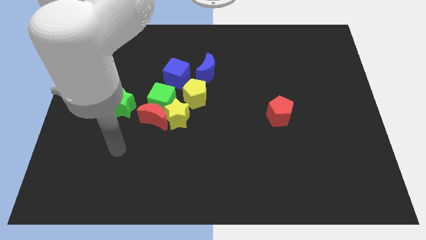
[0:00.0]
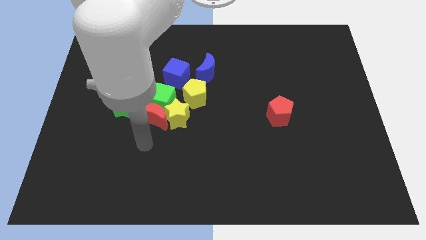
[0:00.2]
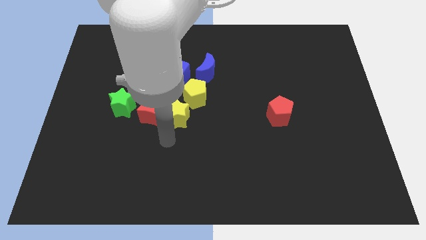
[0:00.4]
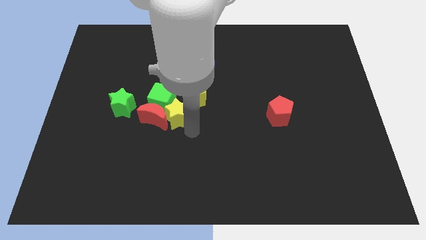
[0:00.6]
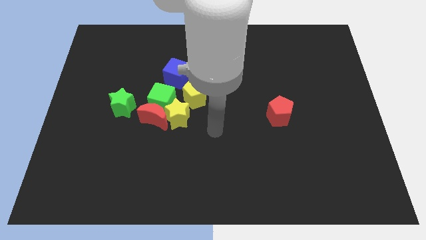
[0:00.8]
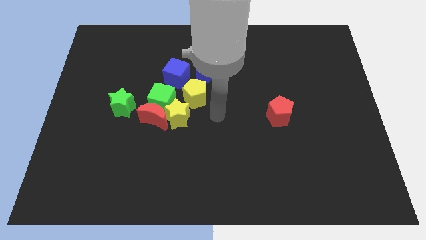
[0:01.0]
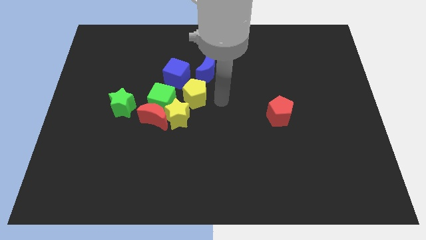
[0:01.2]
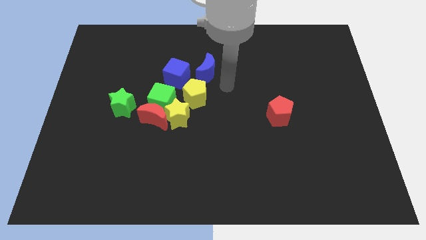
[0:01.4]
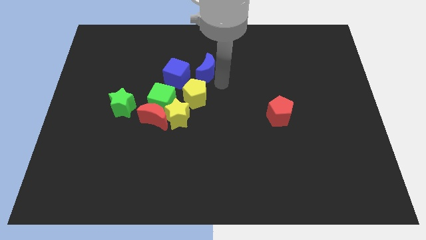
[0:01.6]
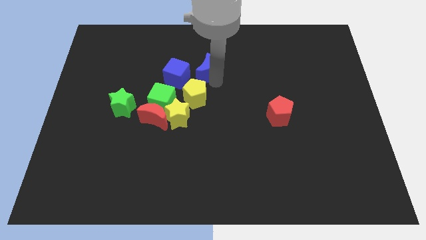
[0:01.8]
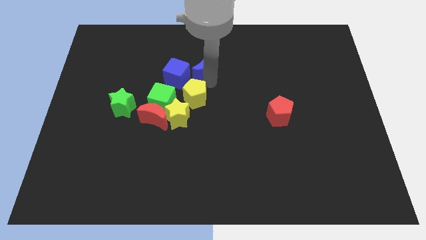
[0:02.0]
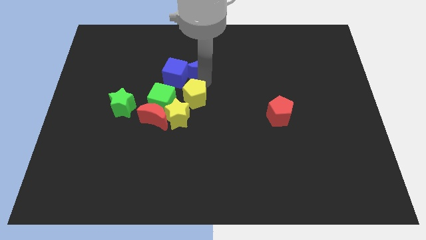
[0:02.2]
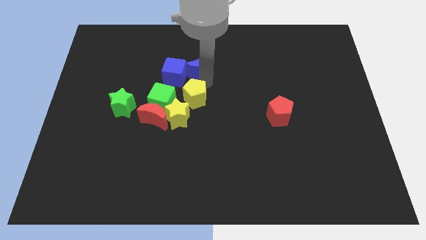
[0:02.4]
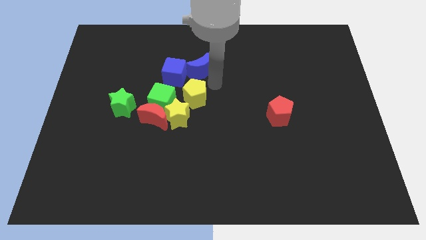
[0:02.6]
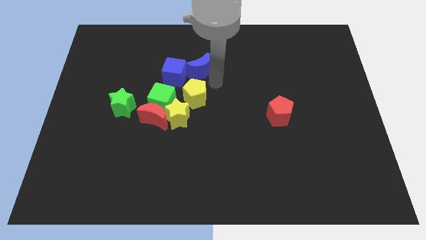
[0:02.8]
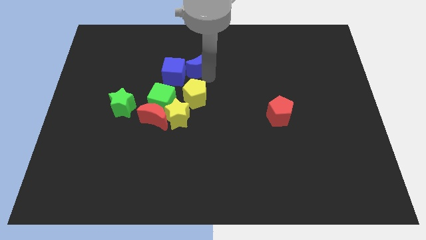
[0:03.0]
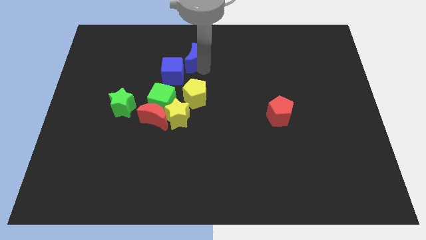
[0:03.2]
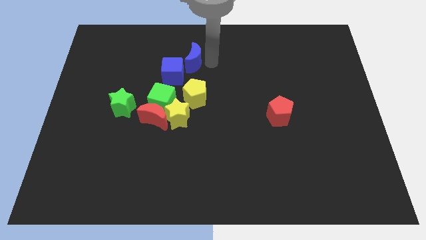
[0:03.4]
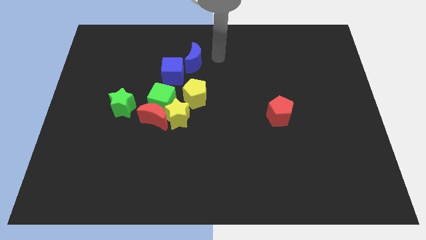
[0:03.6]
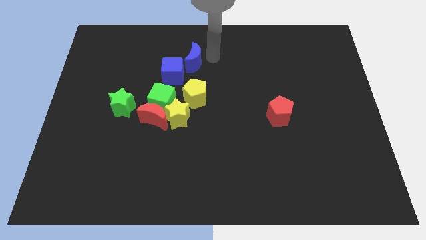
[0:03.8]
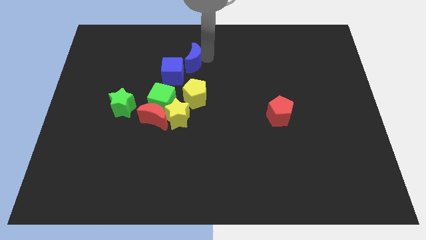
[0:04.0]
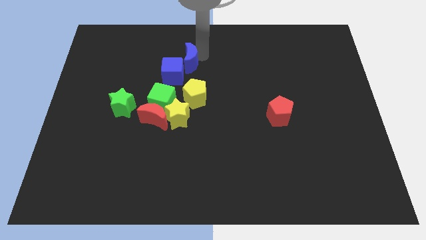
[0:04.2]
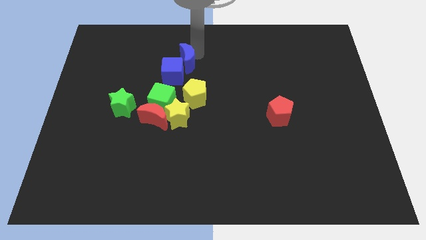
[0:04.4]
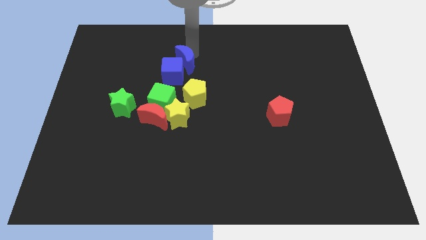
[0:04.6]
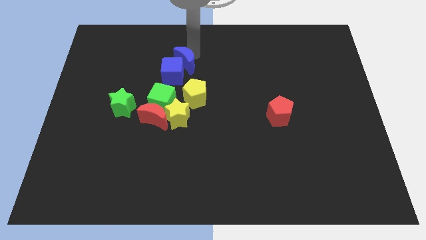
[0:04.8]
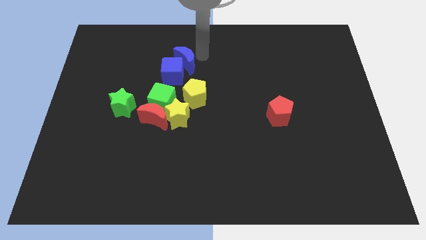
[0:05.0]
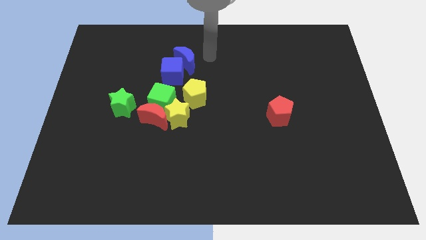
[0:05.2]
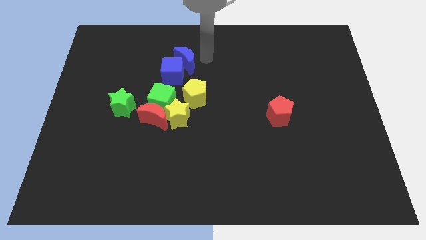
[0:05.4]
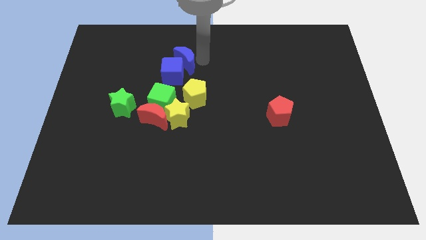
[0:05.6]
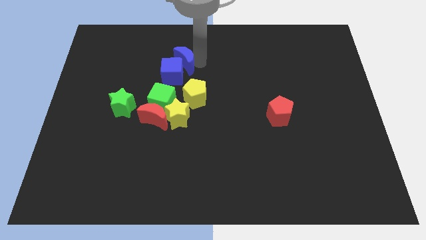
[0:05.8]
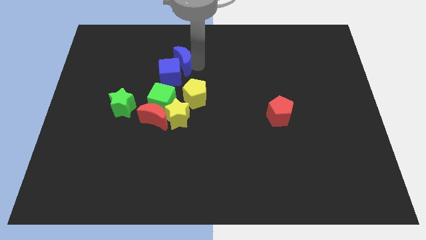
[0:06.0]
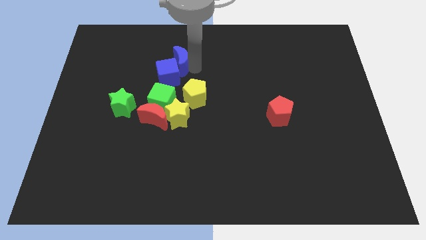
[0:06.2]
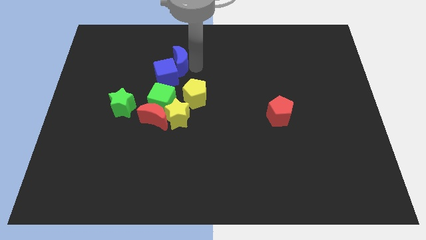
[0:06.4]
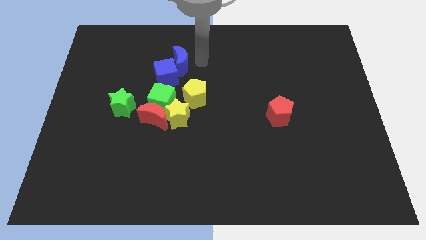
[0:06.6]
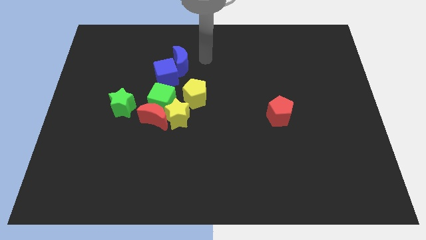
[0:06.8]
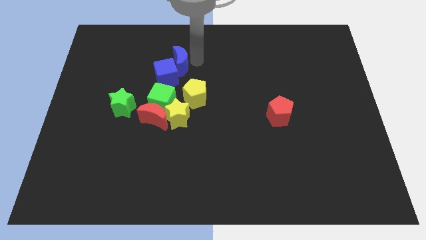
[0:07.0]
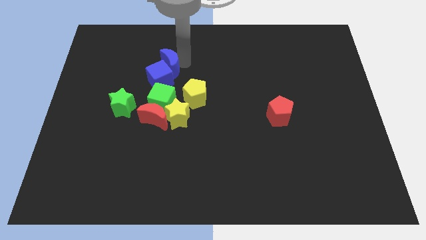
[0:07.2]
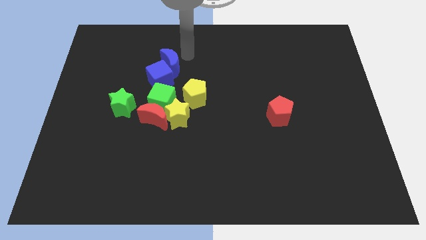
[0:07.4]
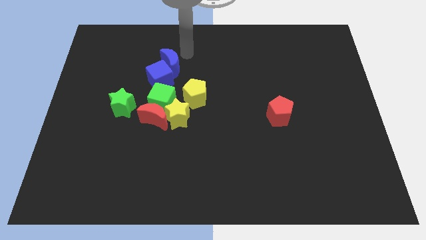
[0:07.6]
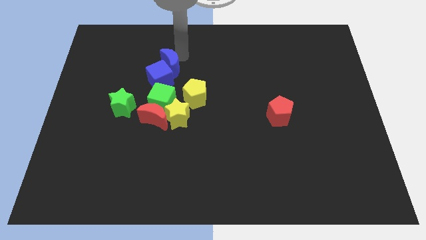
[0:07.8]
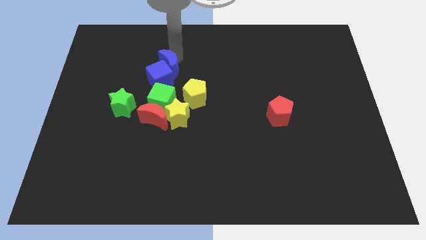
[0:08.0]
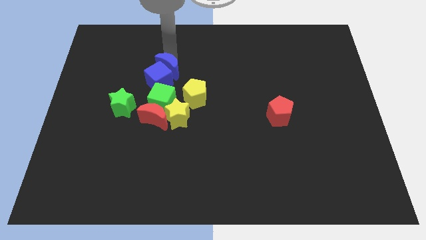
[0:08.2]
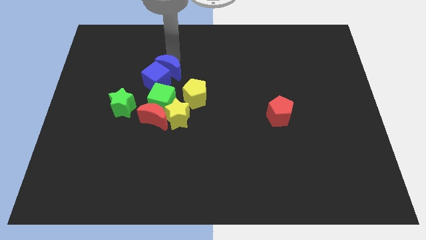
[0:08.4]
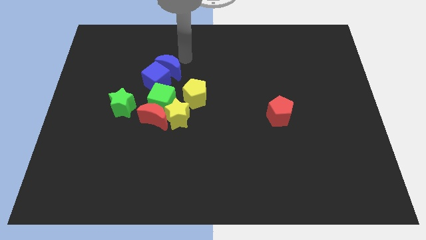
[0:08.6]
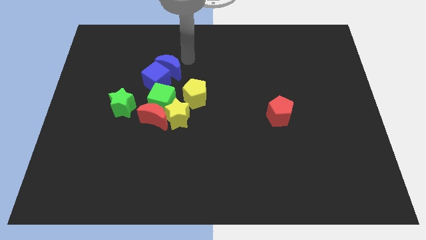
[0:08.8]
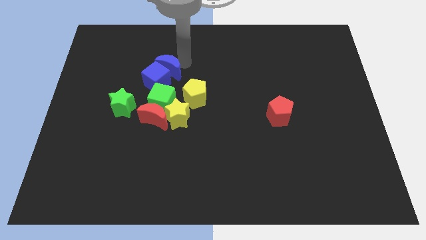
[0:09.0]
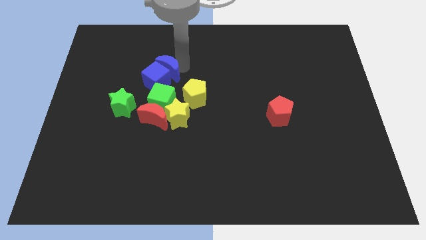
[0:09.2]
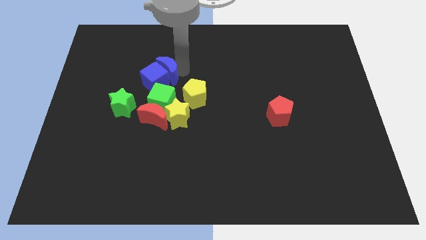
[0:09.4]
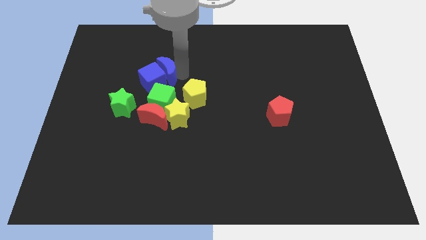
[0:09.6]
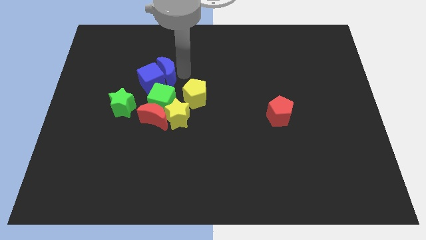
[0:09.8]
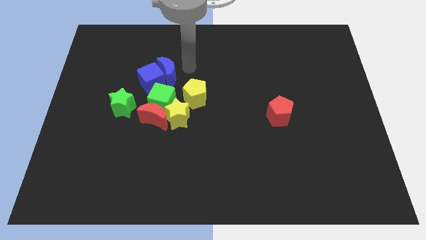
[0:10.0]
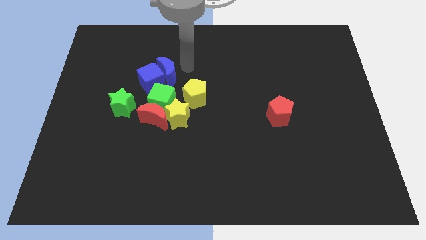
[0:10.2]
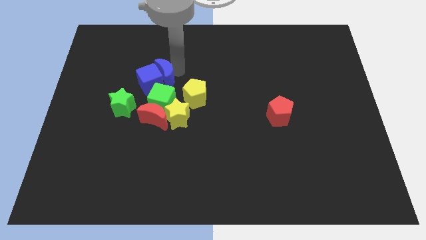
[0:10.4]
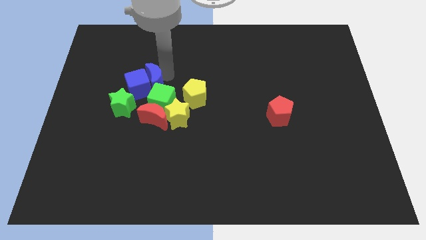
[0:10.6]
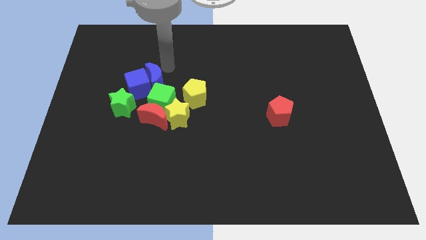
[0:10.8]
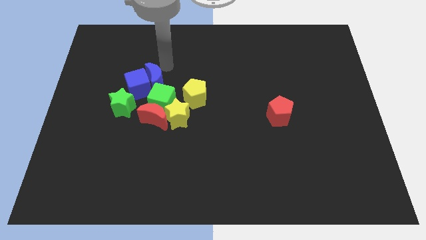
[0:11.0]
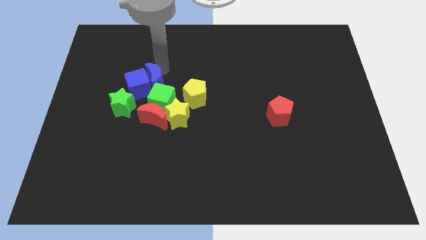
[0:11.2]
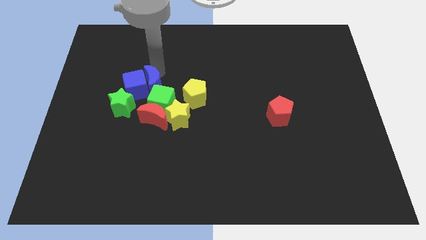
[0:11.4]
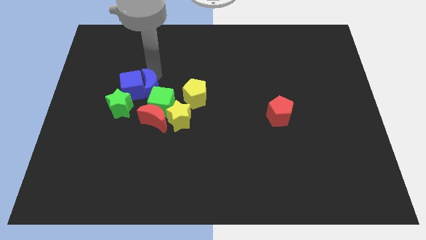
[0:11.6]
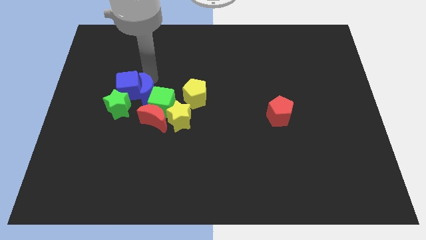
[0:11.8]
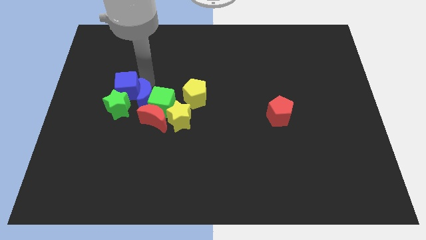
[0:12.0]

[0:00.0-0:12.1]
put the blue moon diagonally down and to the left of the green cube
